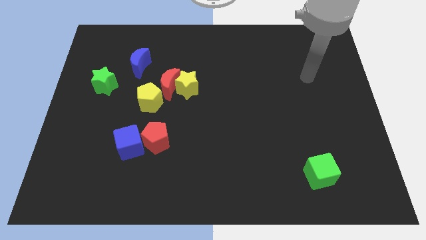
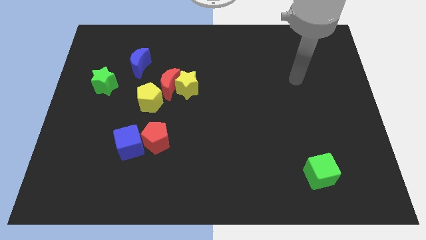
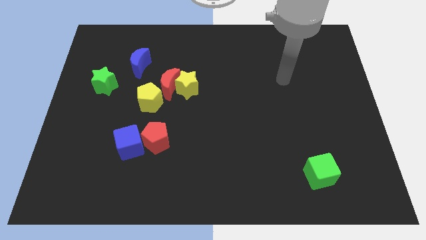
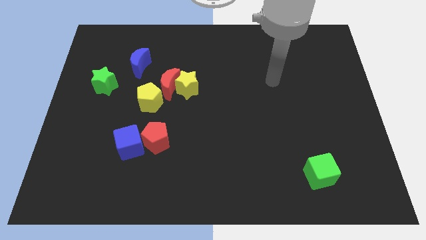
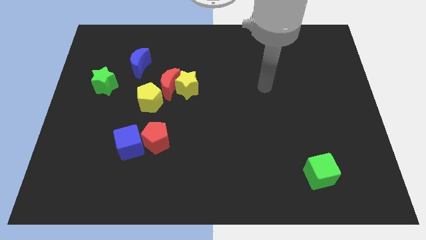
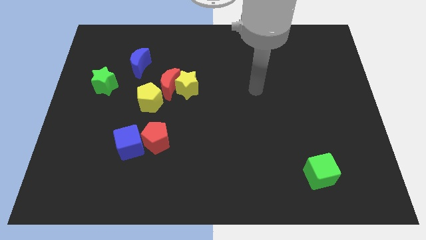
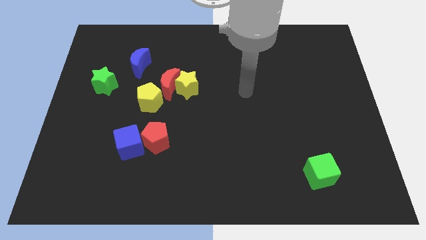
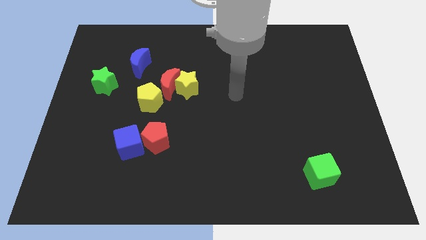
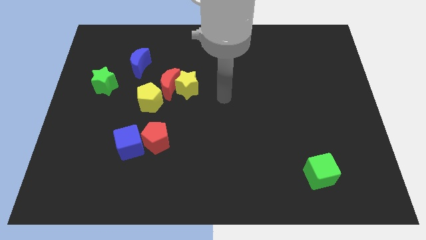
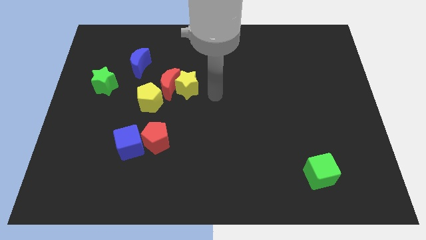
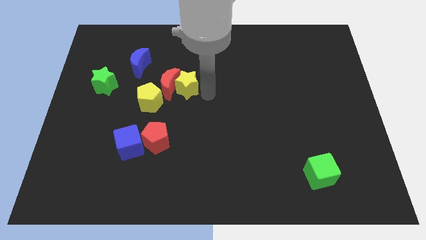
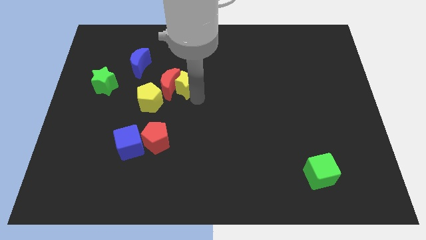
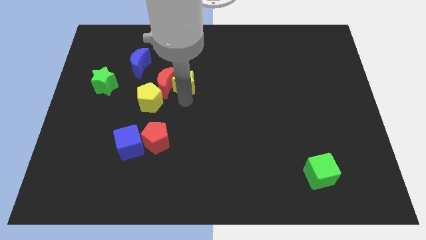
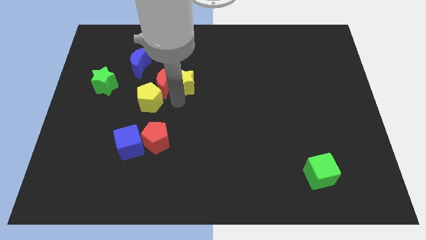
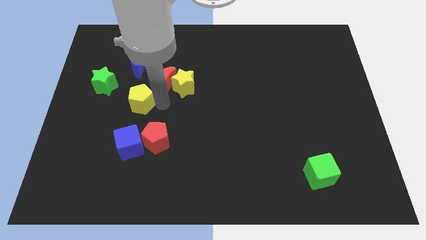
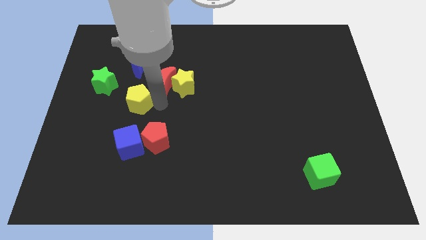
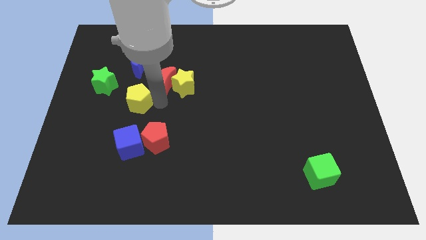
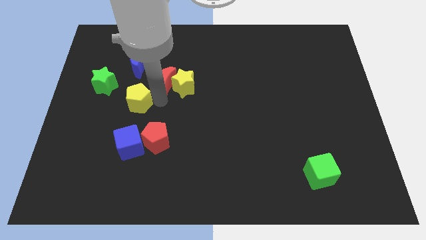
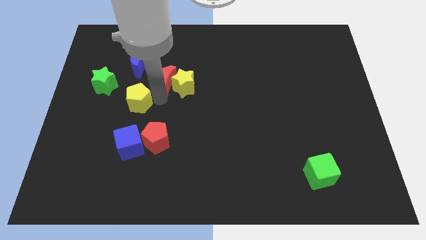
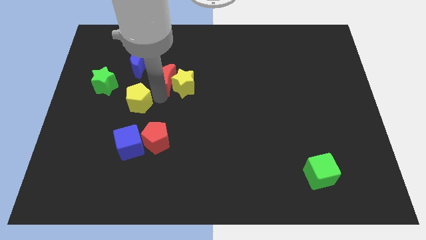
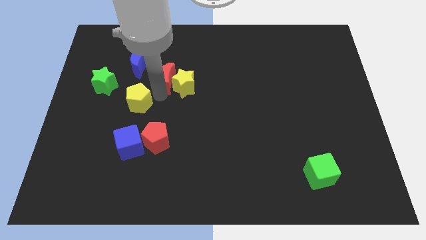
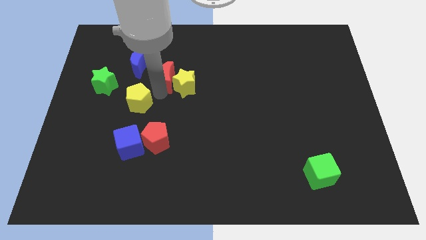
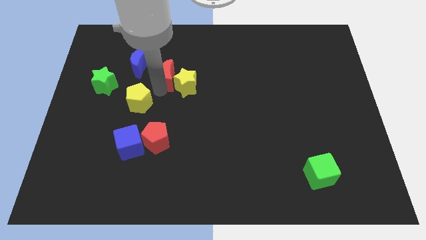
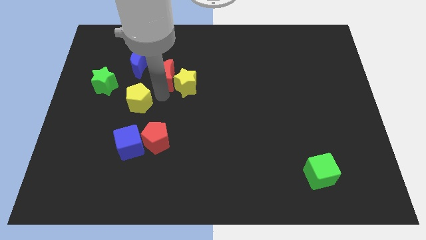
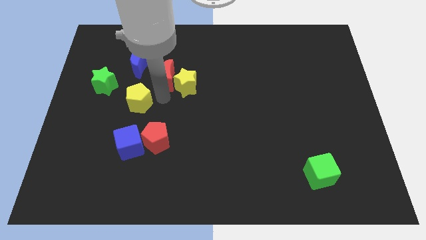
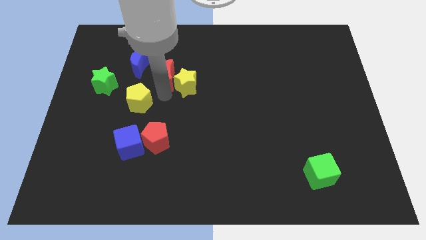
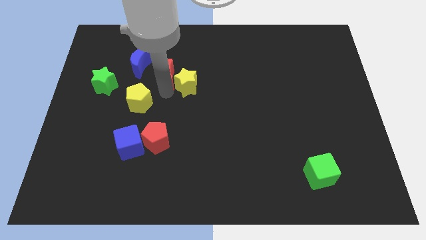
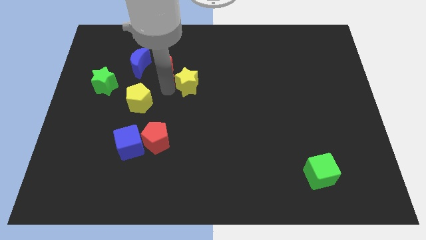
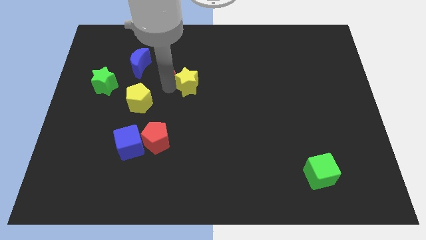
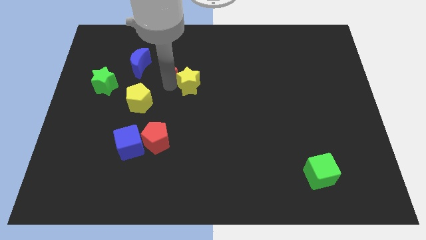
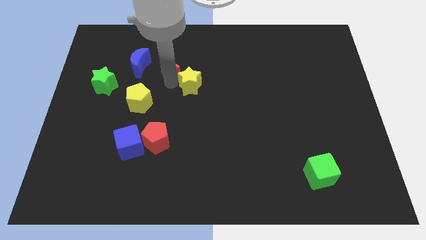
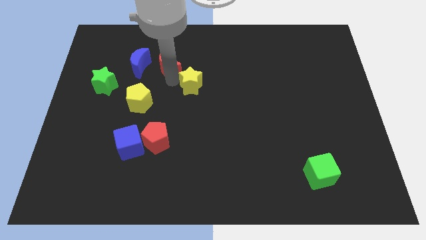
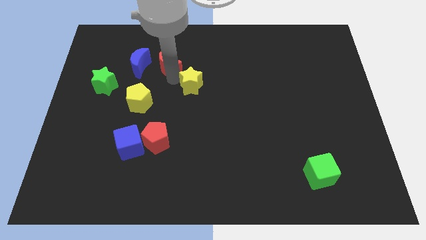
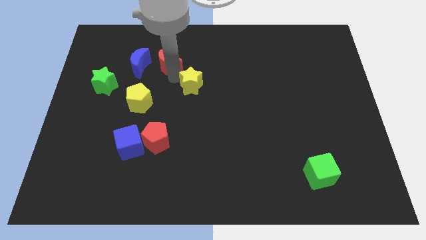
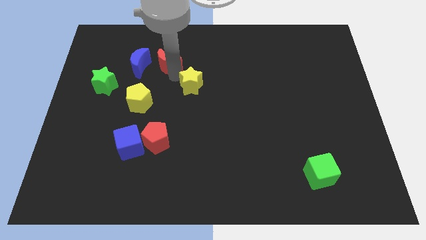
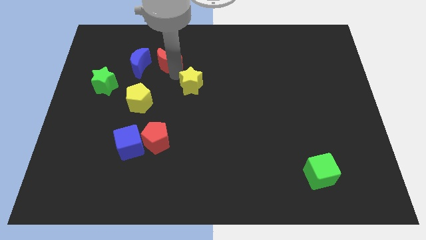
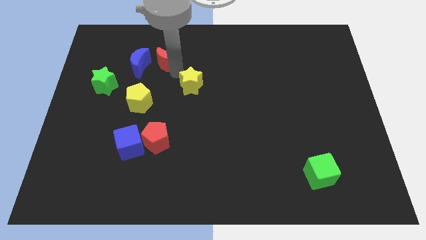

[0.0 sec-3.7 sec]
pull the red moon apart from the yellow star and yellow pentagon

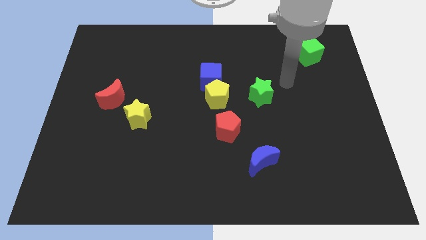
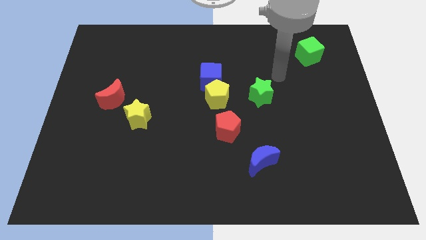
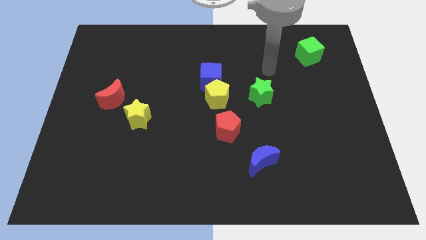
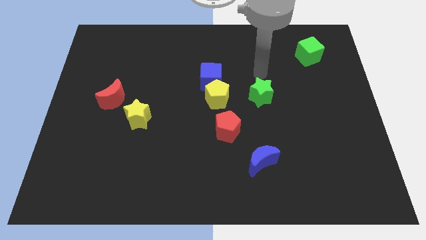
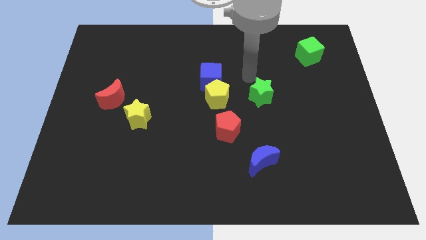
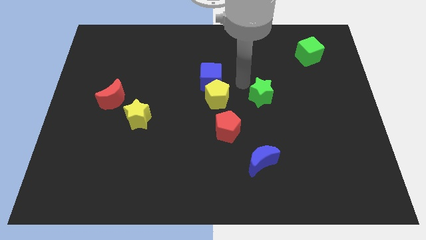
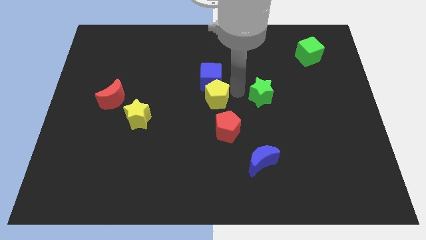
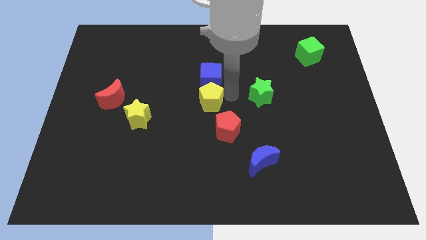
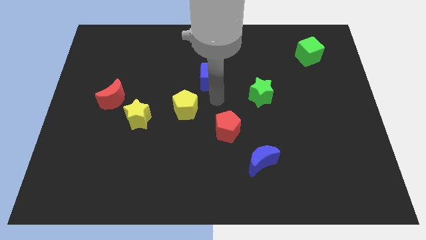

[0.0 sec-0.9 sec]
separate the blue cube from the yellow pentagon

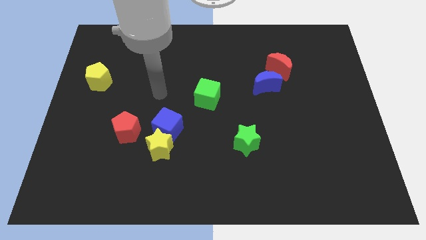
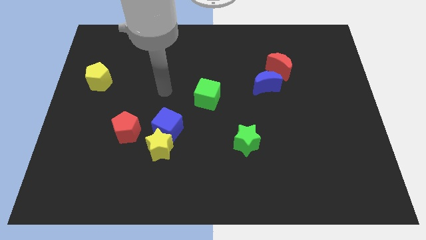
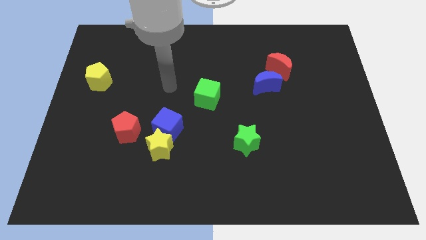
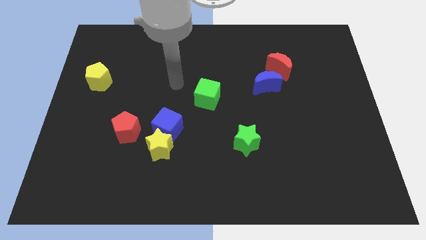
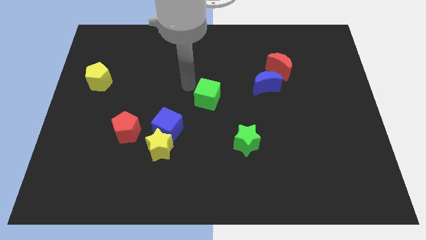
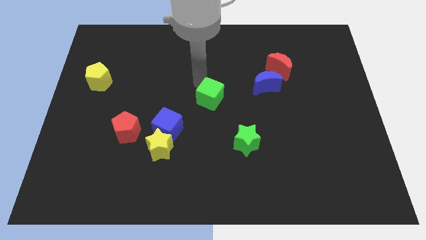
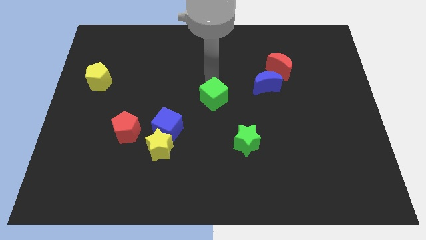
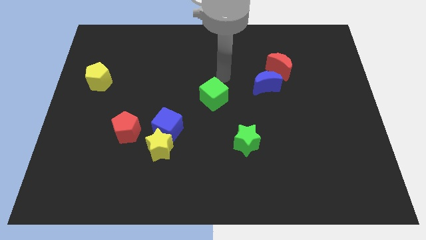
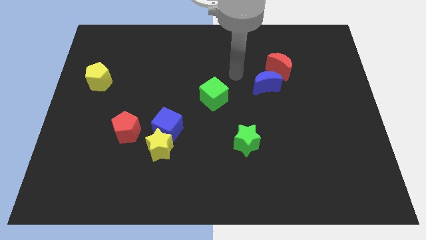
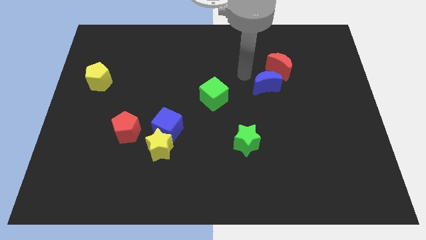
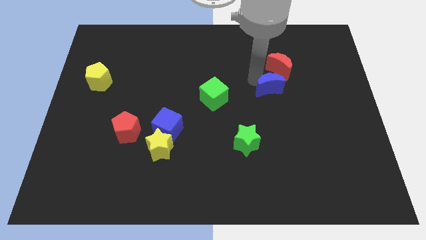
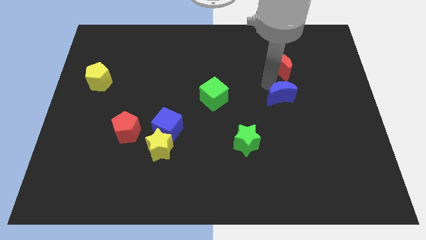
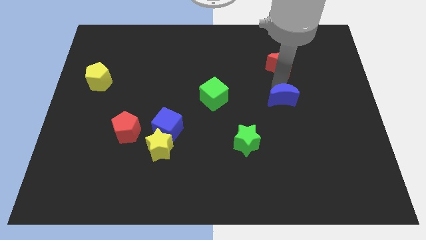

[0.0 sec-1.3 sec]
pull the red moon apart from the blue moon

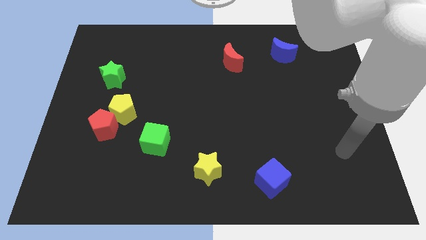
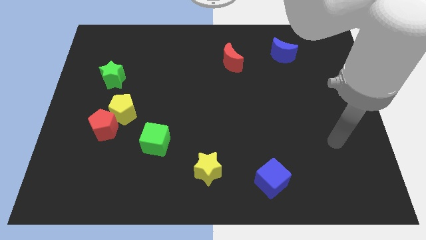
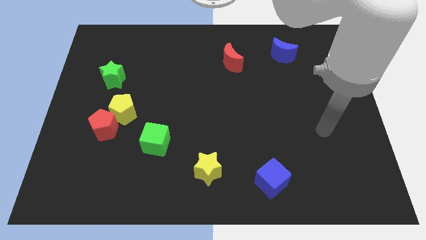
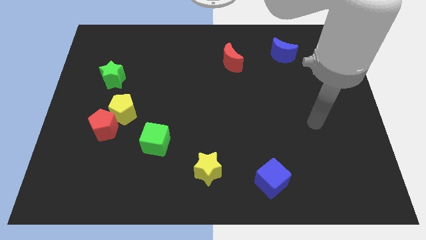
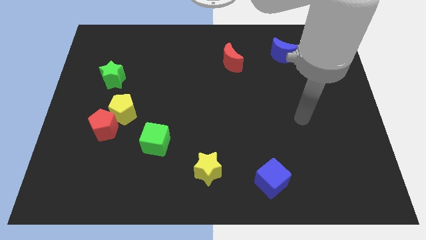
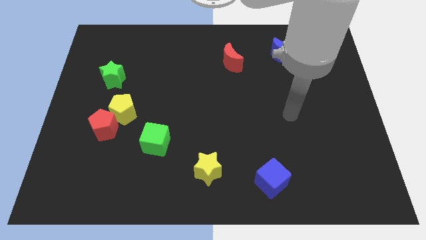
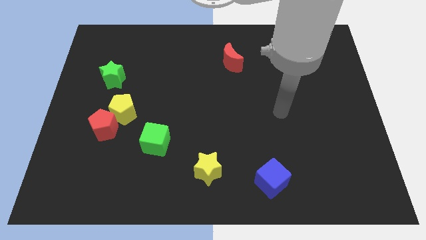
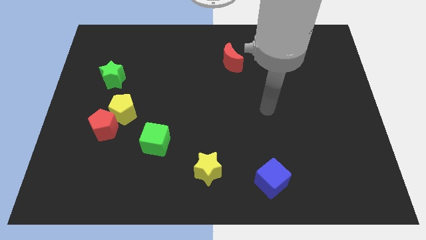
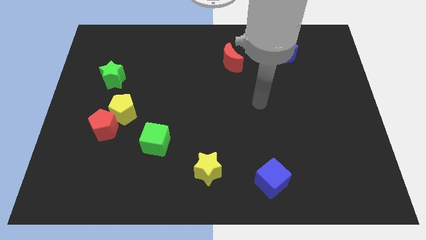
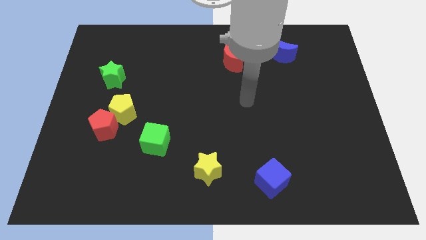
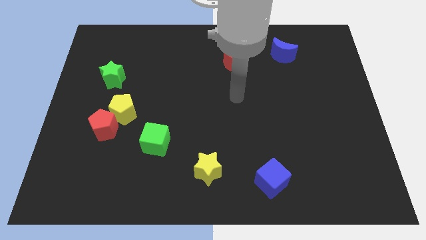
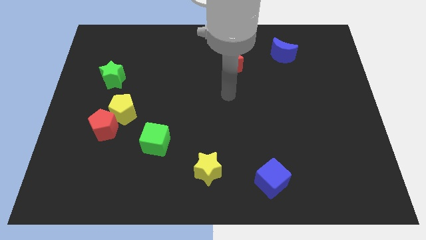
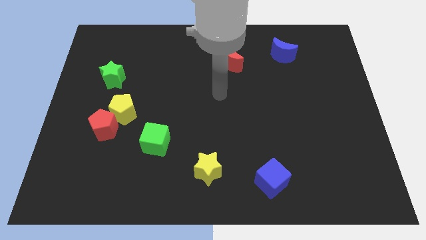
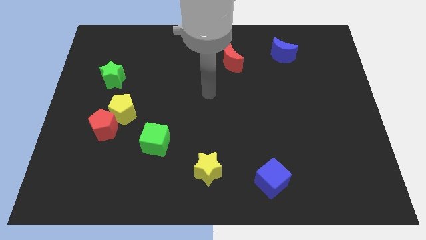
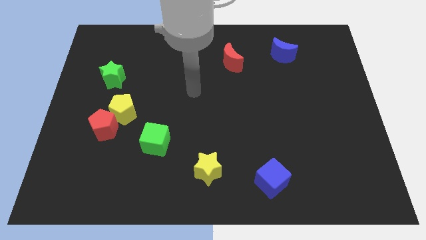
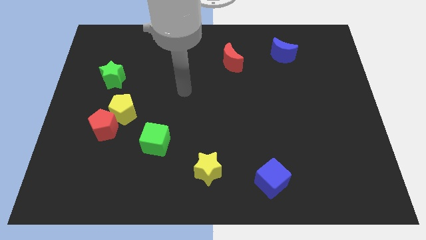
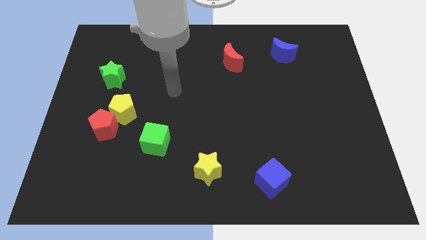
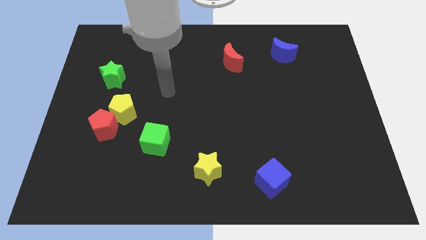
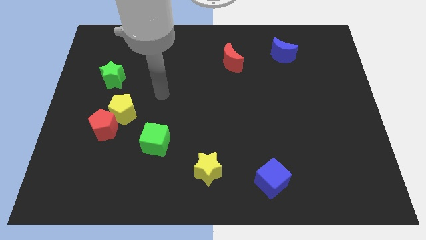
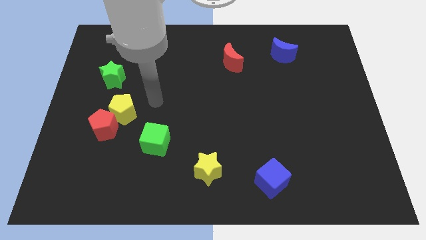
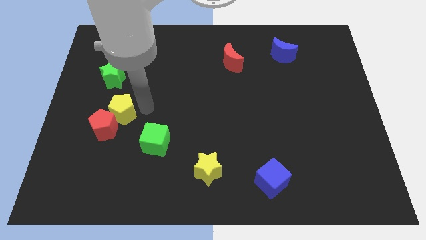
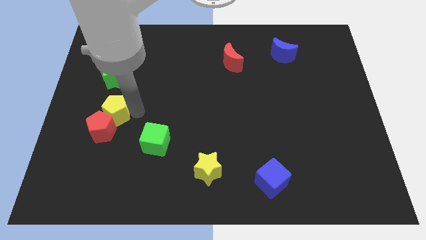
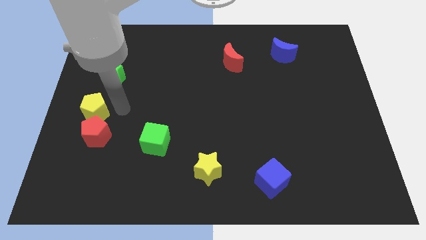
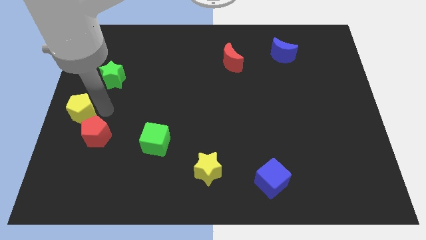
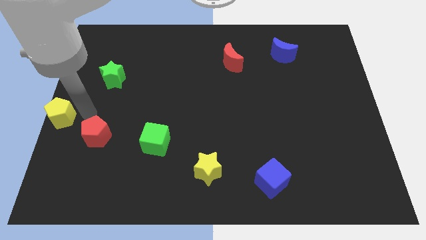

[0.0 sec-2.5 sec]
separate the red pentagon from the yellow pentagon

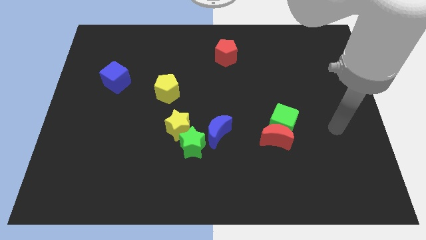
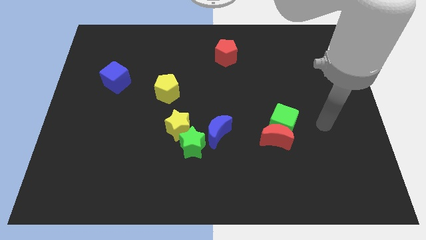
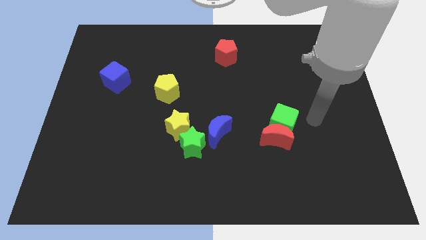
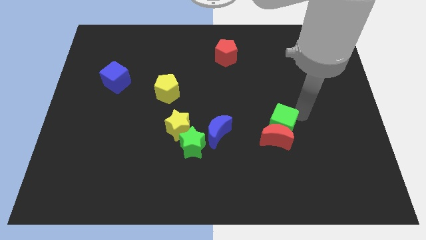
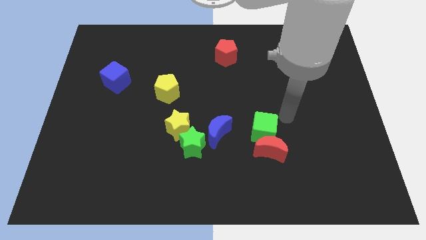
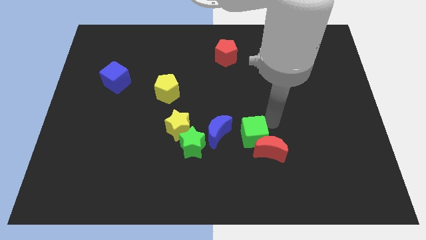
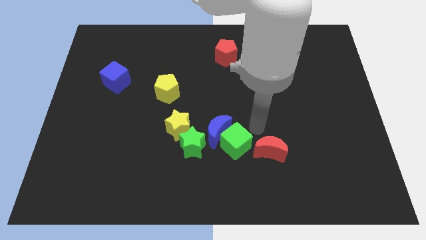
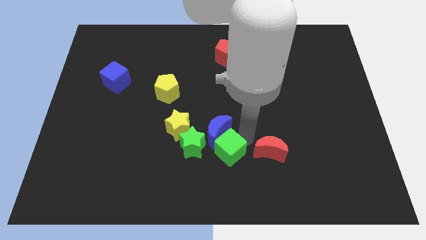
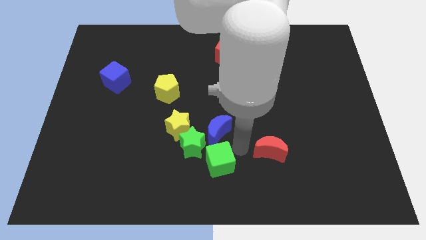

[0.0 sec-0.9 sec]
pull the red moon apart from the green cube
